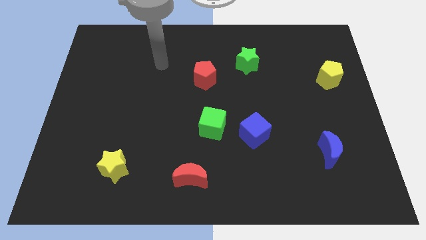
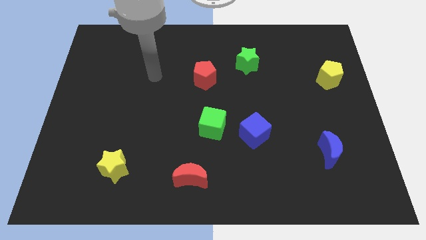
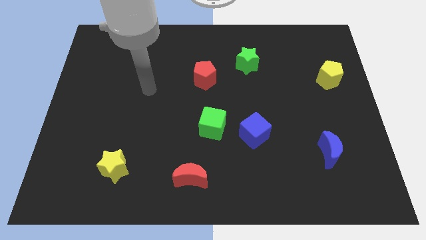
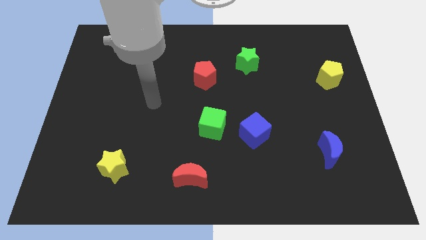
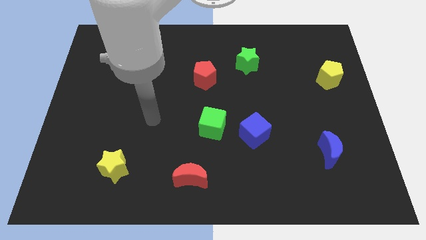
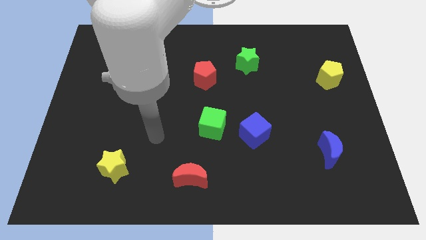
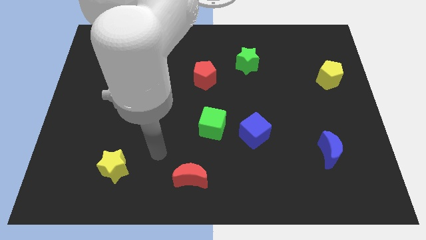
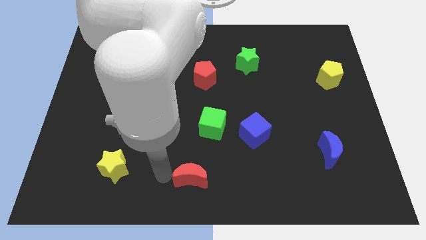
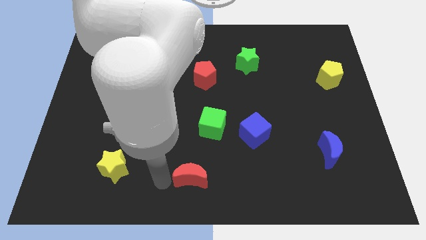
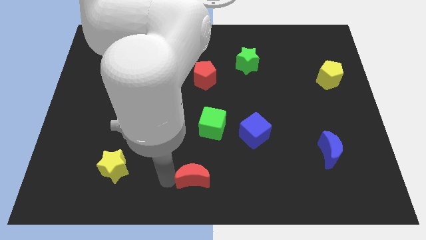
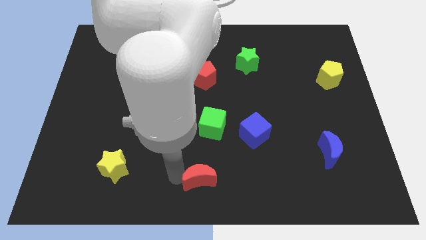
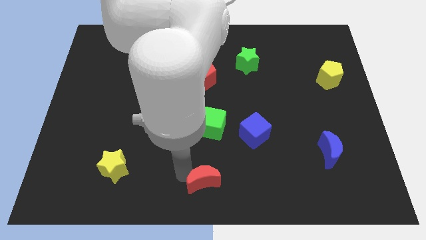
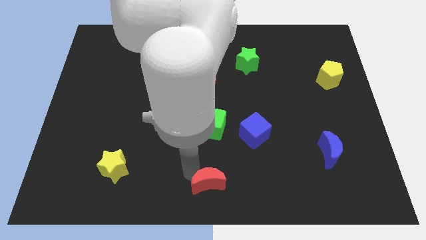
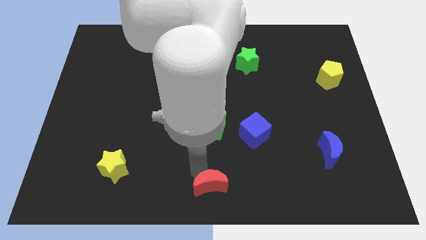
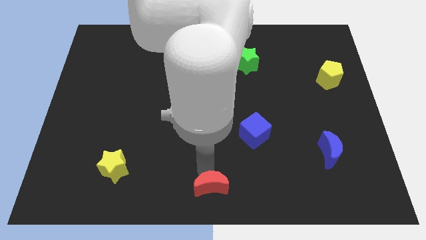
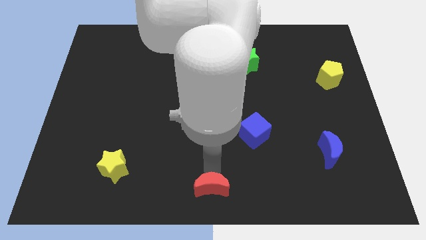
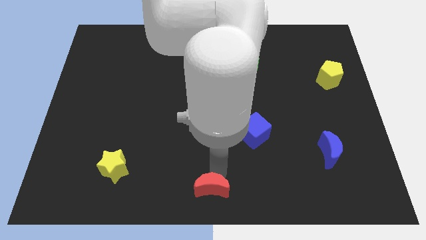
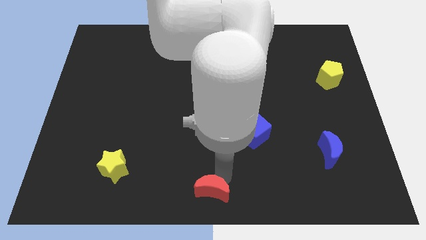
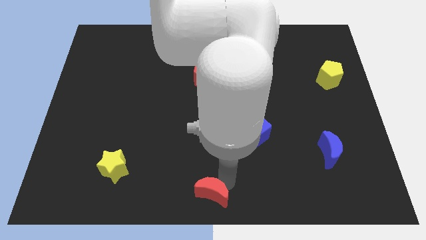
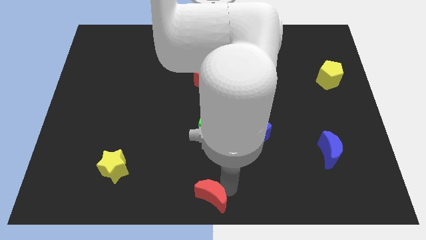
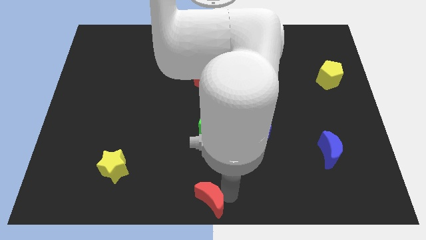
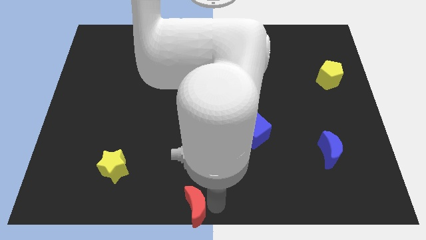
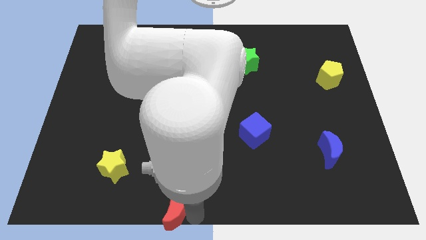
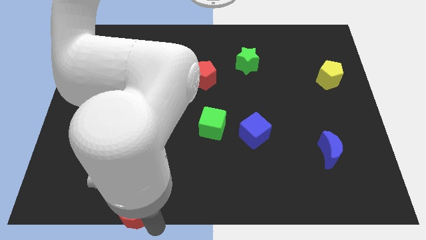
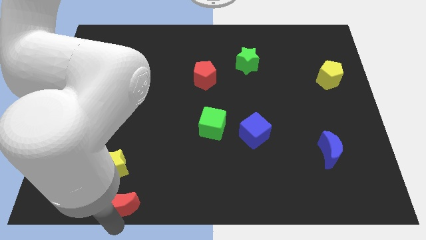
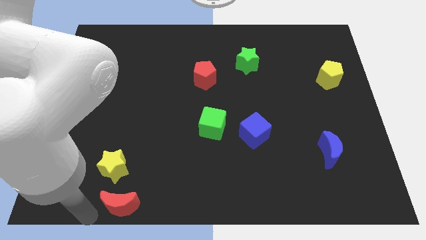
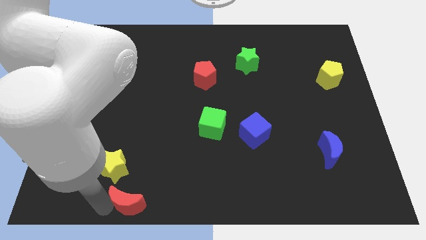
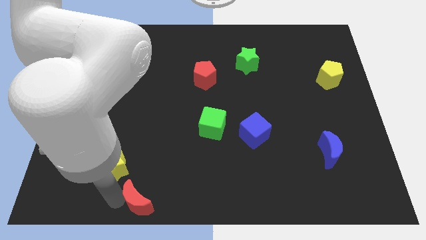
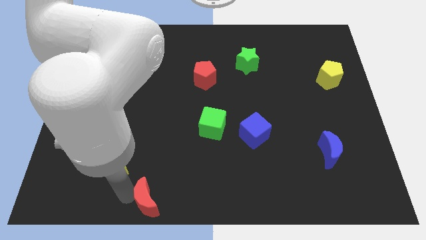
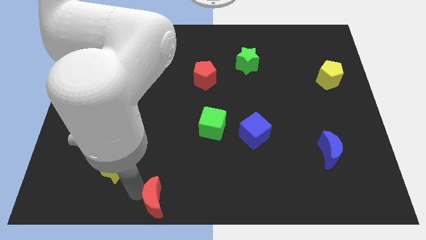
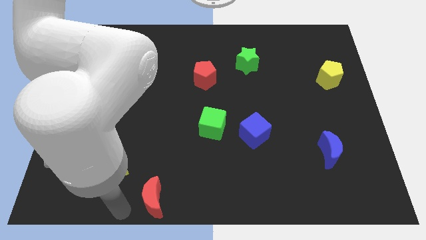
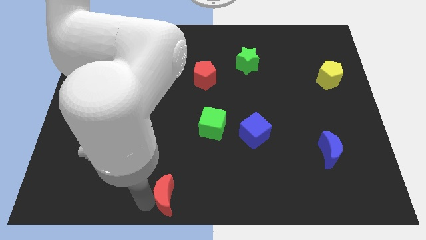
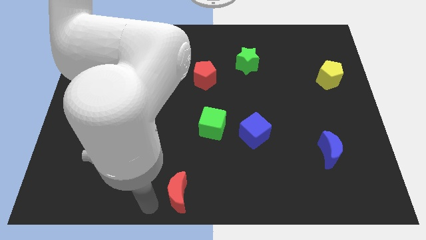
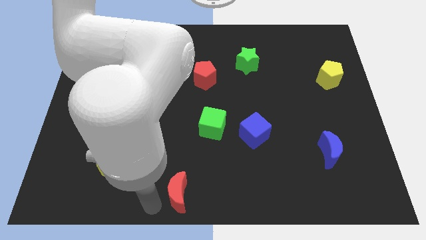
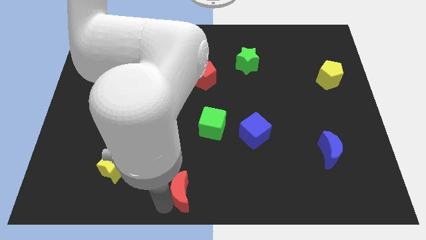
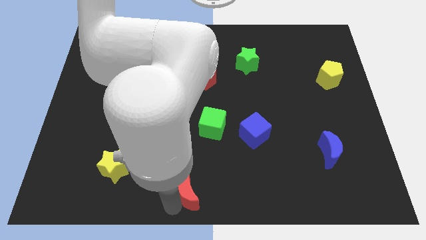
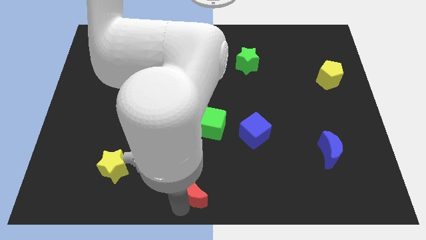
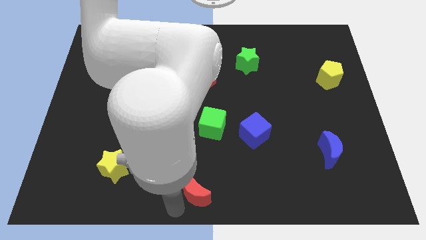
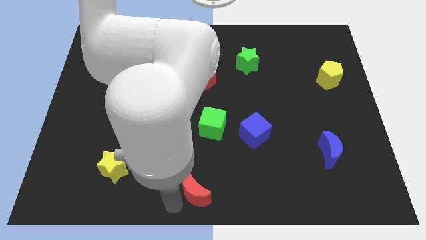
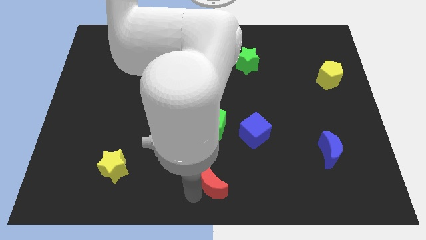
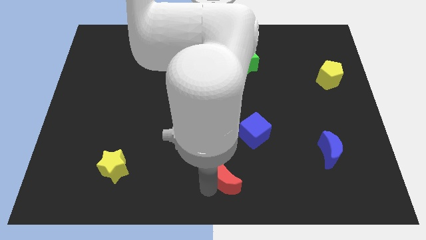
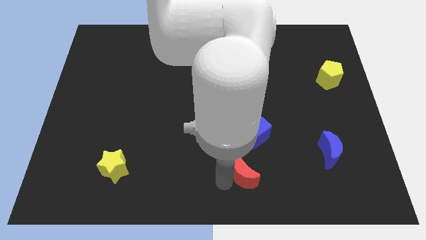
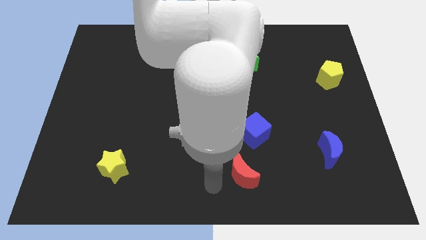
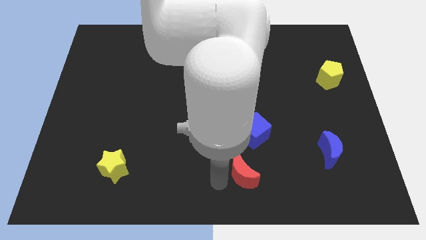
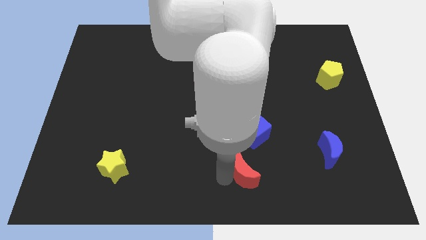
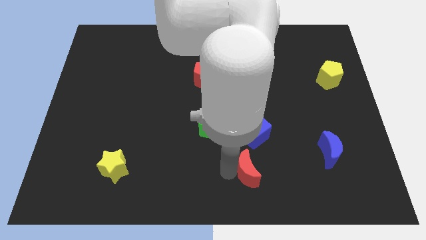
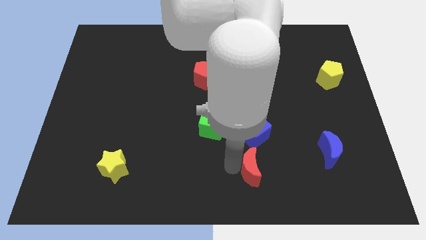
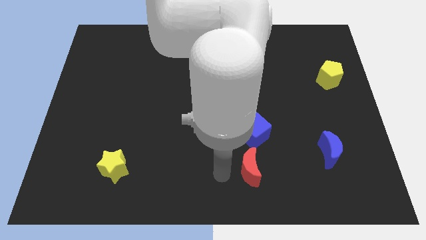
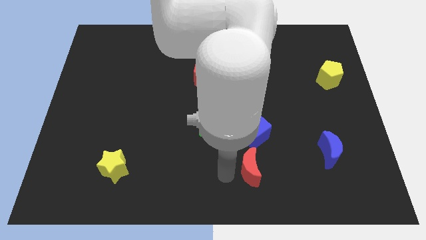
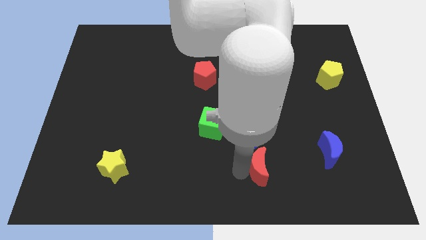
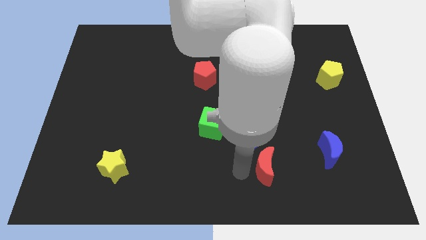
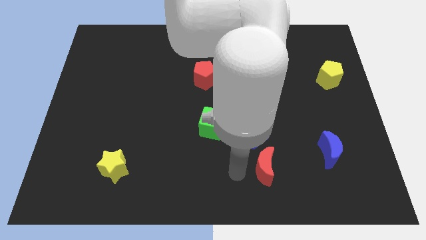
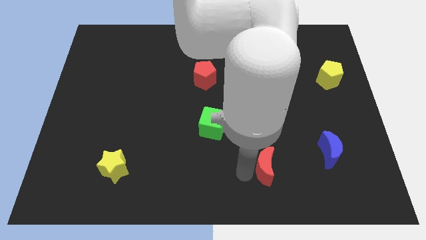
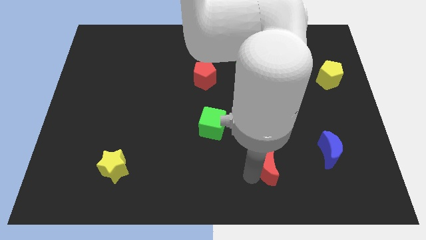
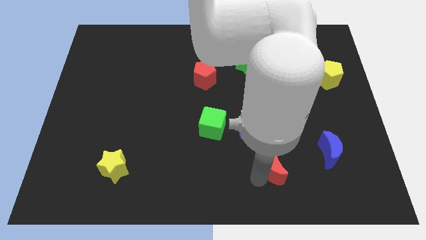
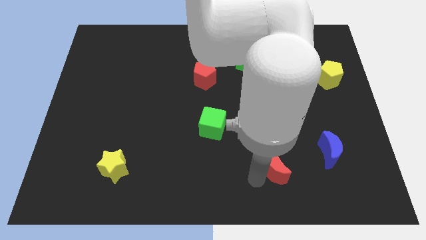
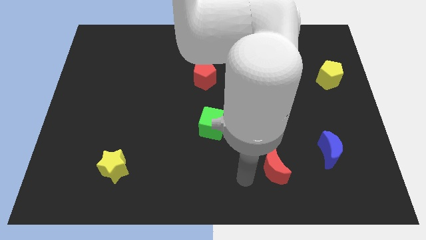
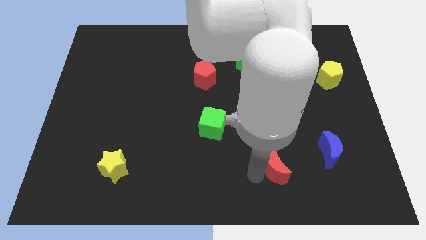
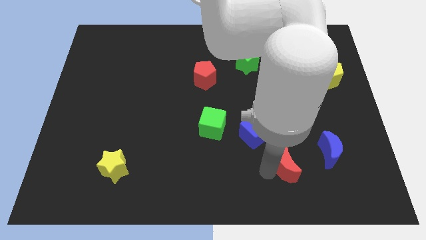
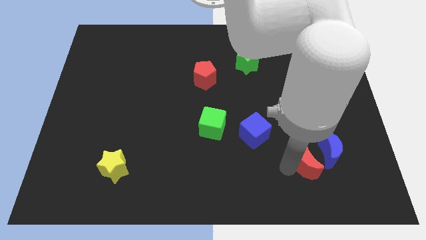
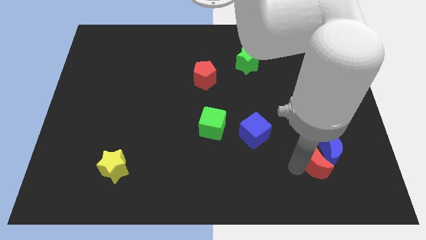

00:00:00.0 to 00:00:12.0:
slide the red moon towards the blue moon
